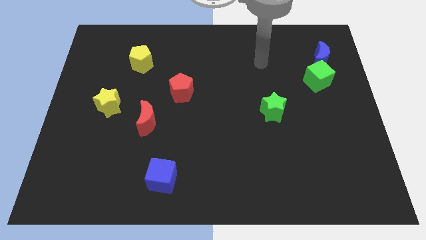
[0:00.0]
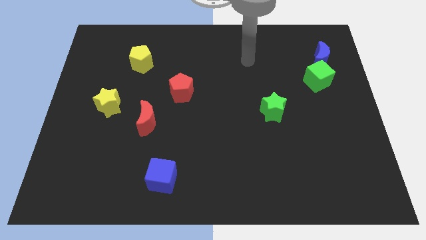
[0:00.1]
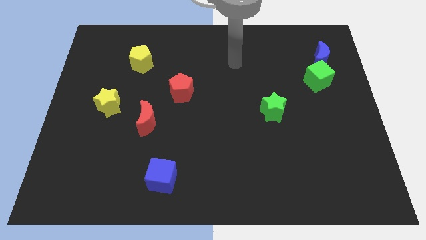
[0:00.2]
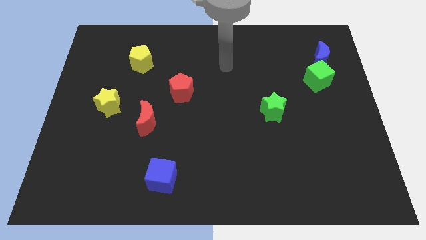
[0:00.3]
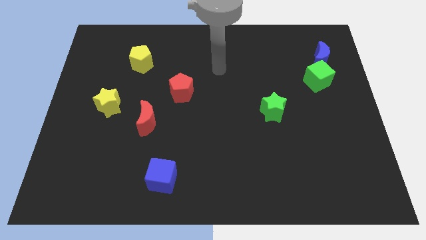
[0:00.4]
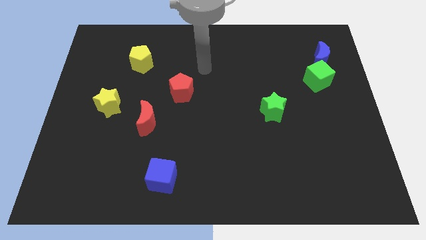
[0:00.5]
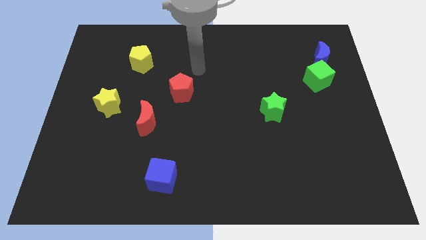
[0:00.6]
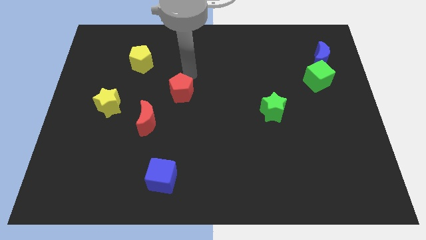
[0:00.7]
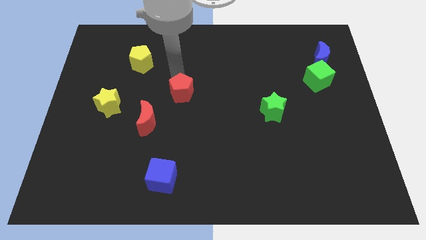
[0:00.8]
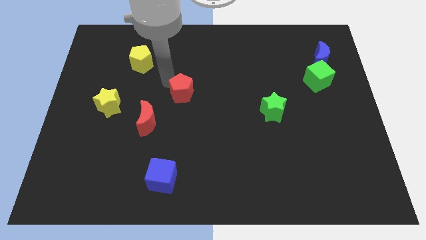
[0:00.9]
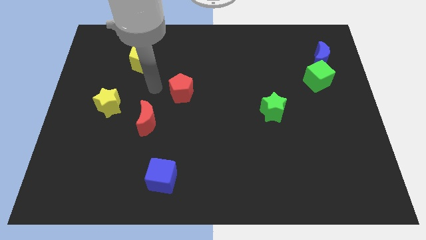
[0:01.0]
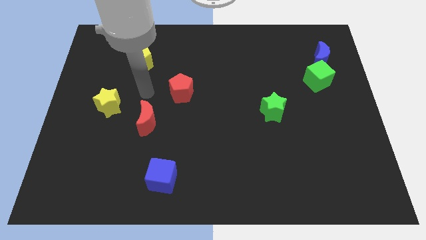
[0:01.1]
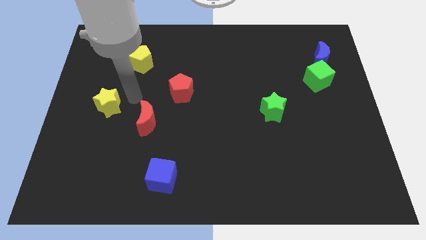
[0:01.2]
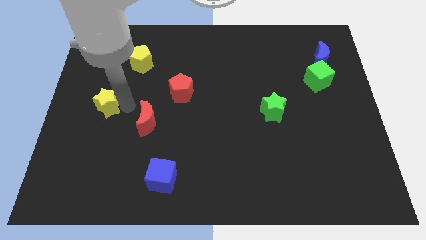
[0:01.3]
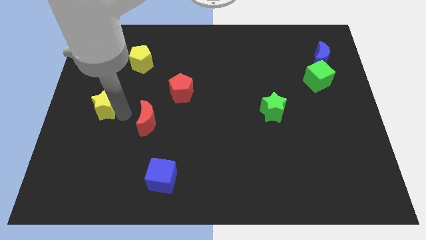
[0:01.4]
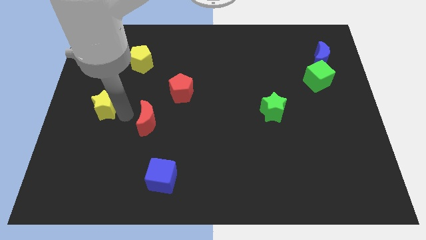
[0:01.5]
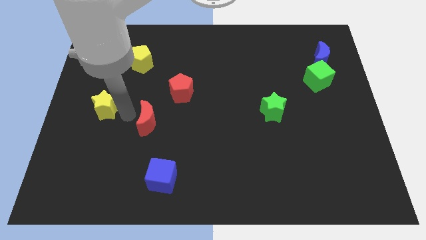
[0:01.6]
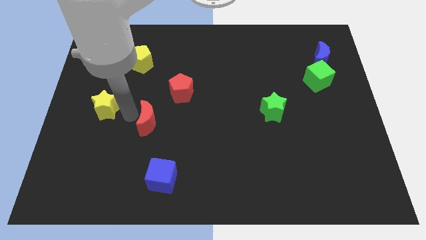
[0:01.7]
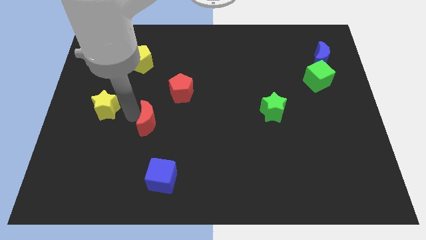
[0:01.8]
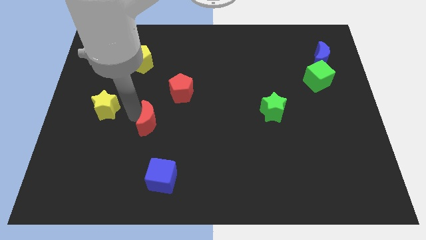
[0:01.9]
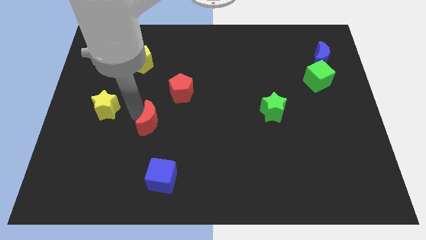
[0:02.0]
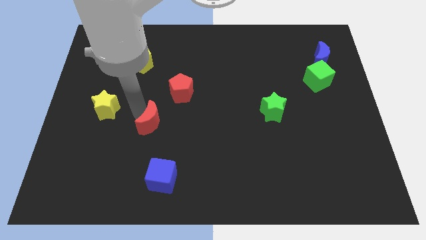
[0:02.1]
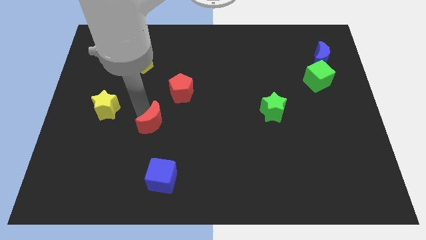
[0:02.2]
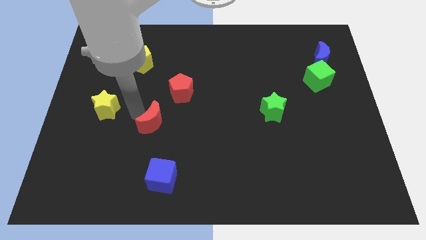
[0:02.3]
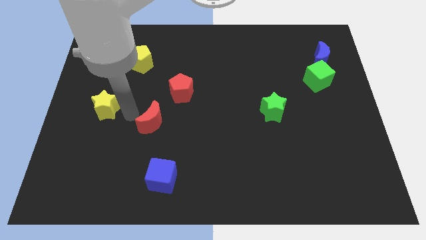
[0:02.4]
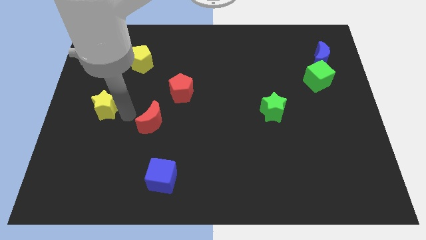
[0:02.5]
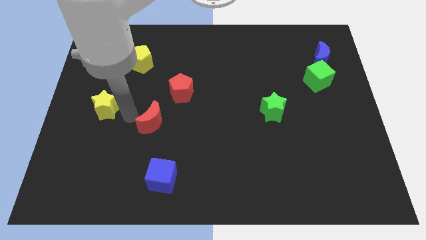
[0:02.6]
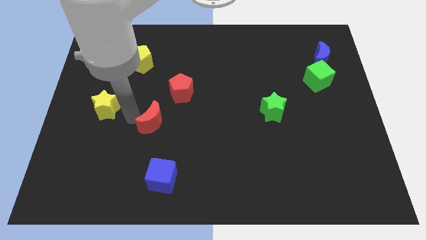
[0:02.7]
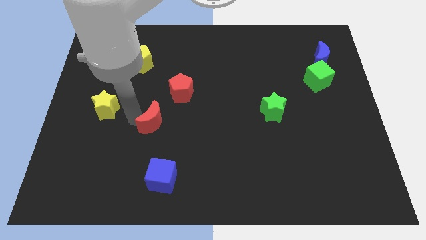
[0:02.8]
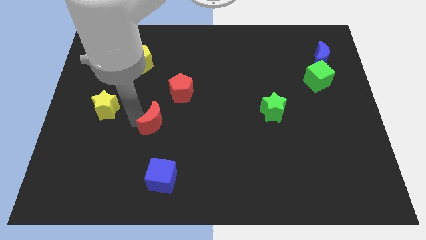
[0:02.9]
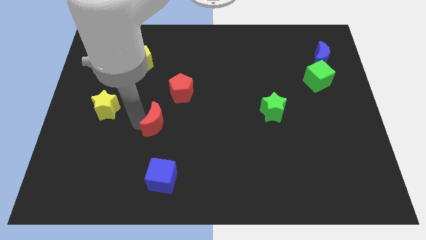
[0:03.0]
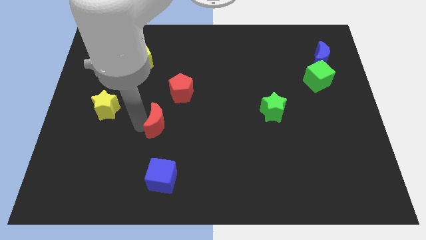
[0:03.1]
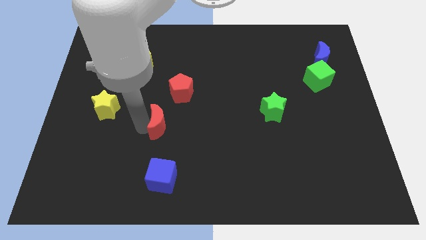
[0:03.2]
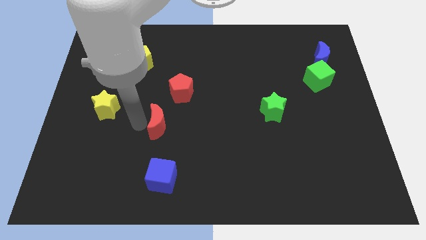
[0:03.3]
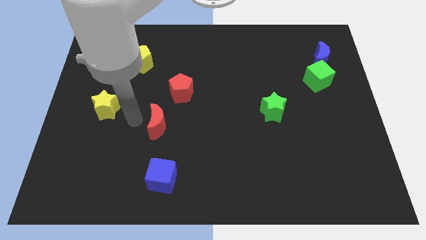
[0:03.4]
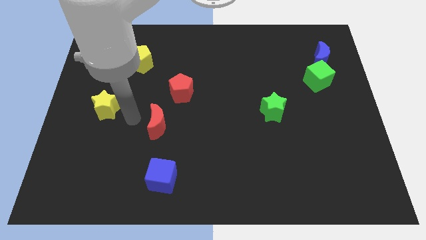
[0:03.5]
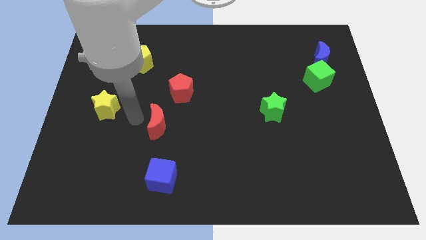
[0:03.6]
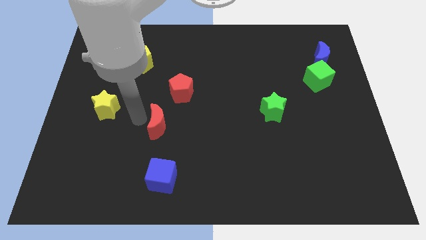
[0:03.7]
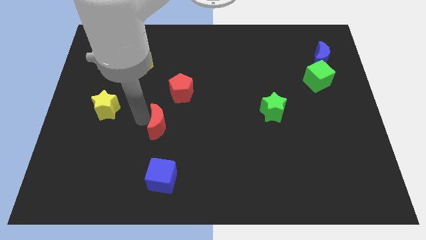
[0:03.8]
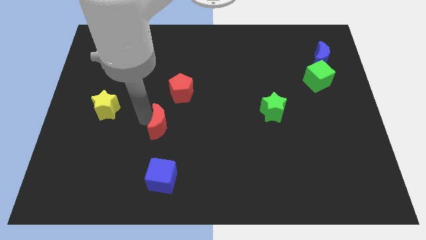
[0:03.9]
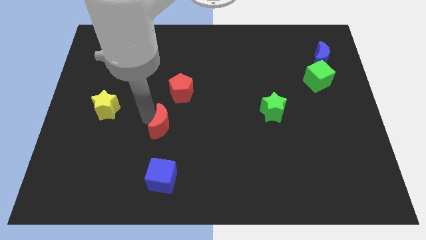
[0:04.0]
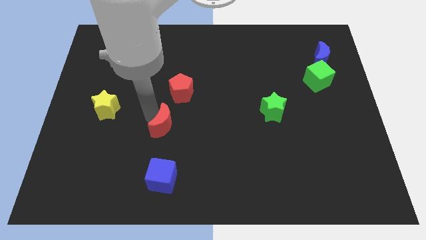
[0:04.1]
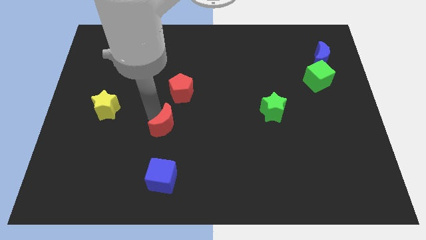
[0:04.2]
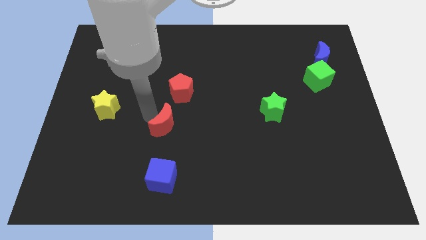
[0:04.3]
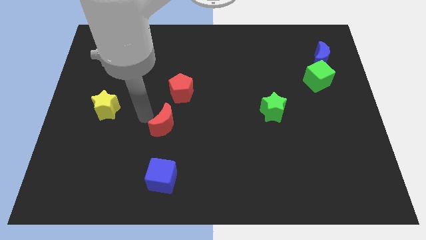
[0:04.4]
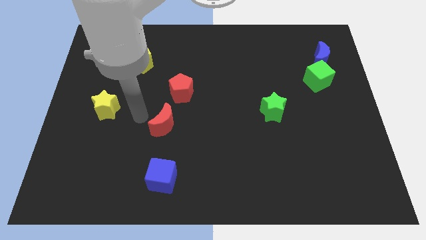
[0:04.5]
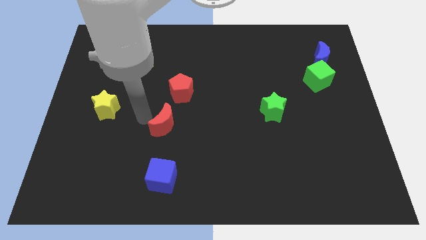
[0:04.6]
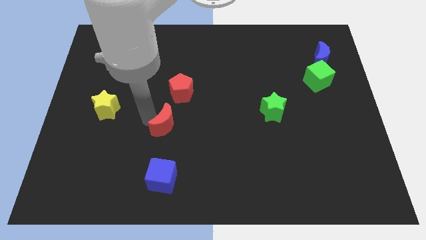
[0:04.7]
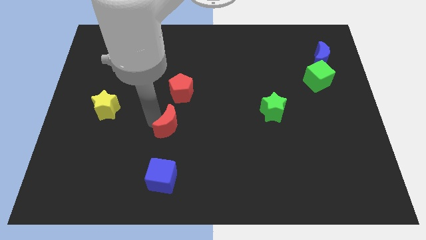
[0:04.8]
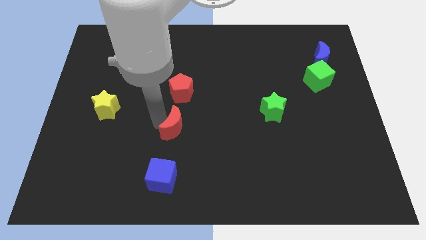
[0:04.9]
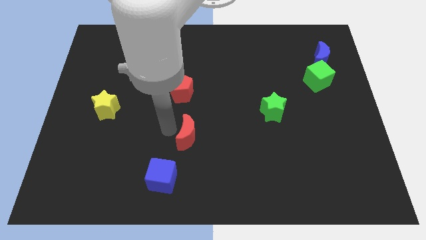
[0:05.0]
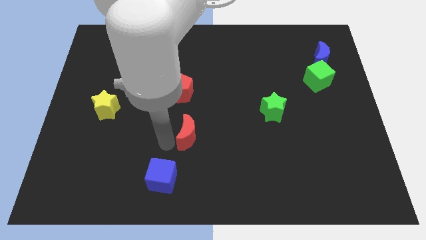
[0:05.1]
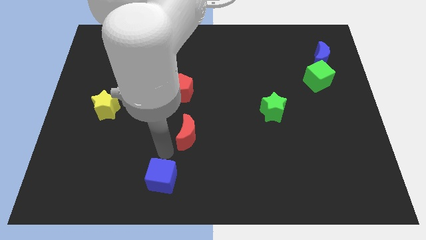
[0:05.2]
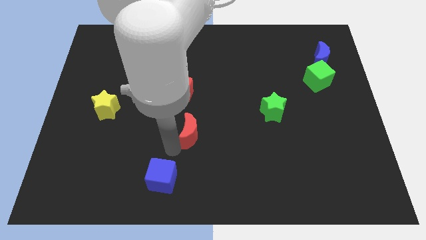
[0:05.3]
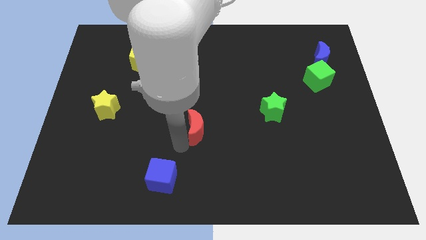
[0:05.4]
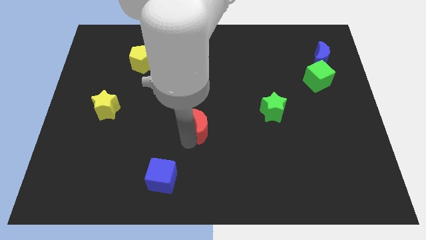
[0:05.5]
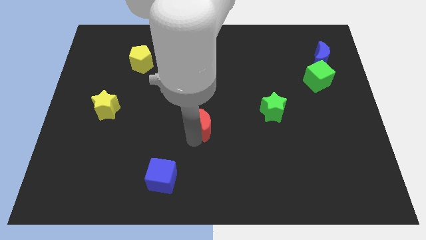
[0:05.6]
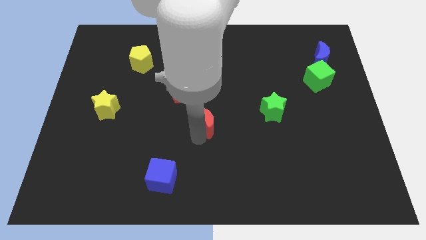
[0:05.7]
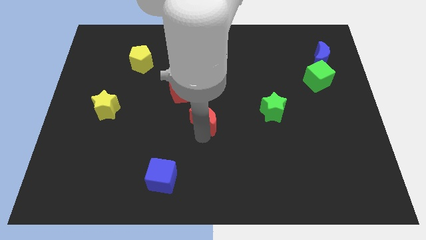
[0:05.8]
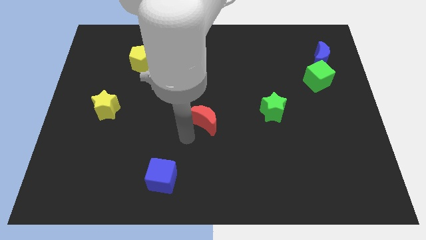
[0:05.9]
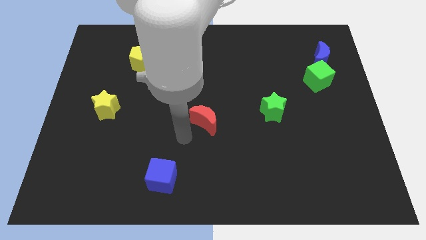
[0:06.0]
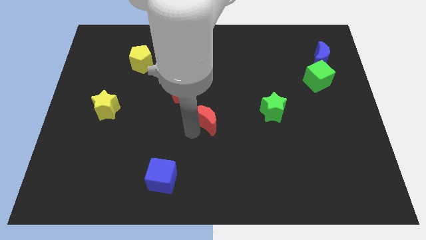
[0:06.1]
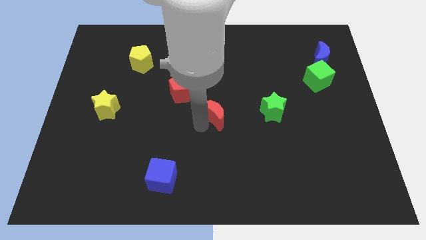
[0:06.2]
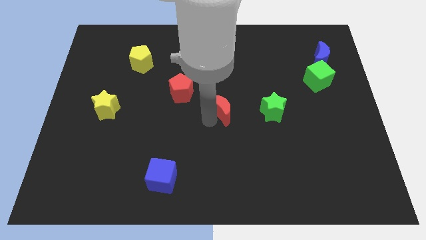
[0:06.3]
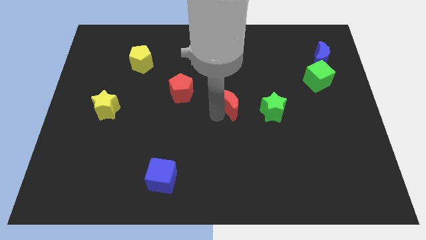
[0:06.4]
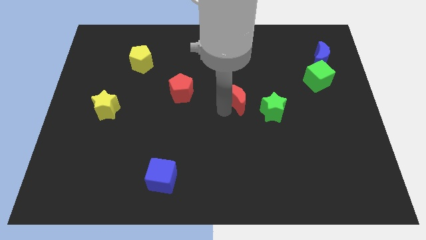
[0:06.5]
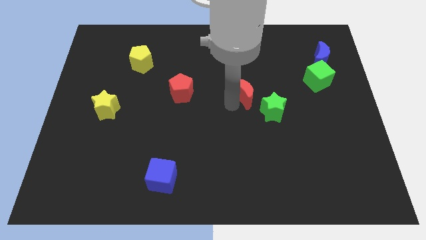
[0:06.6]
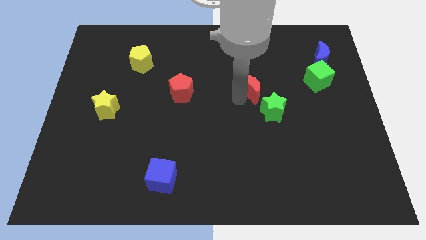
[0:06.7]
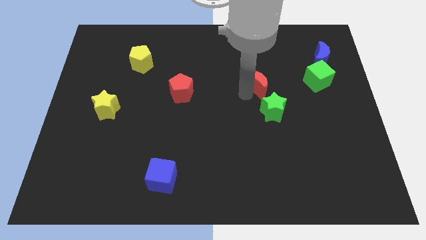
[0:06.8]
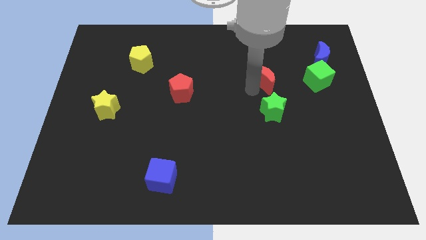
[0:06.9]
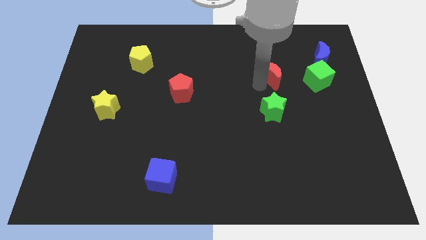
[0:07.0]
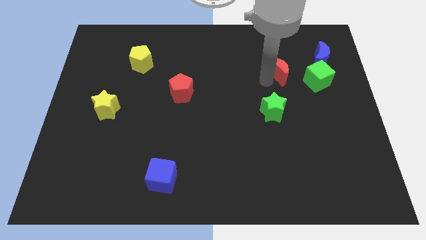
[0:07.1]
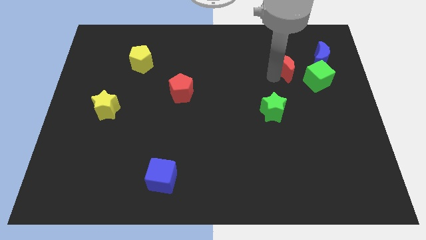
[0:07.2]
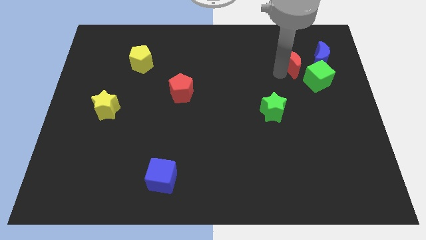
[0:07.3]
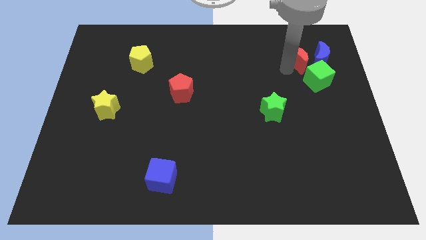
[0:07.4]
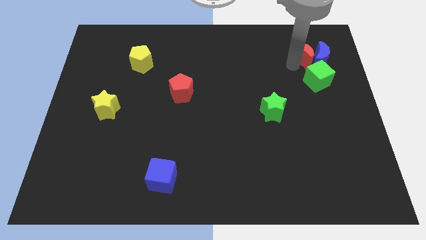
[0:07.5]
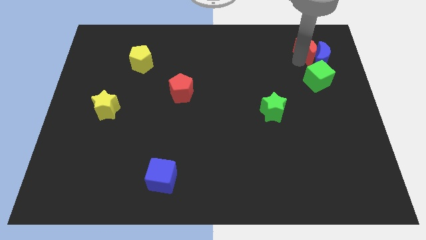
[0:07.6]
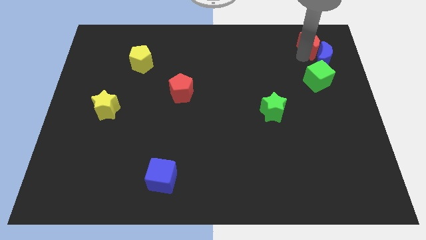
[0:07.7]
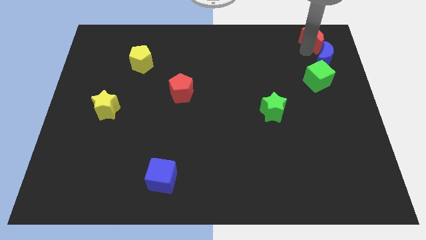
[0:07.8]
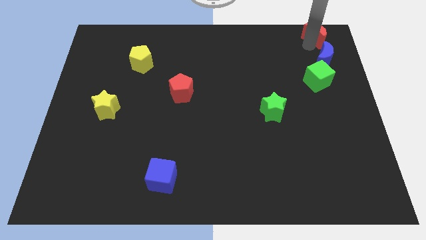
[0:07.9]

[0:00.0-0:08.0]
put the red moon to the top right corner
